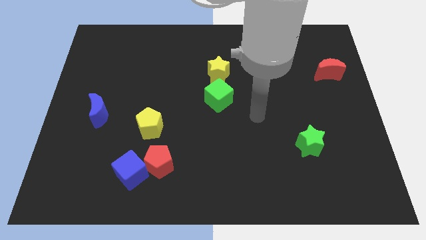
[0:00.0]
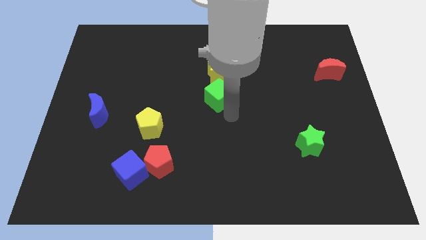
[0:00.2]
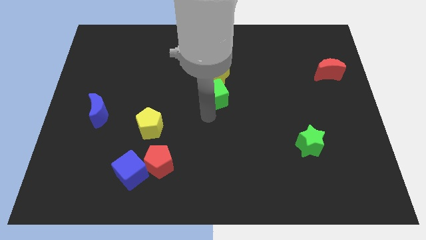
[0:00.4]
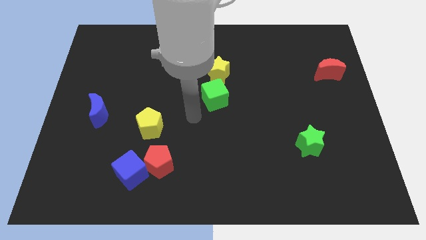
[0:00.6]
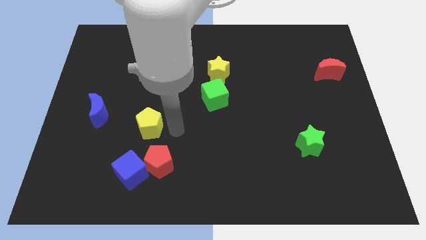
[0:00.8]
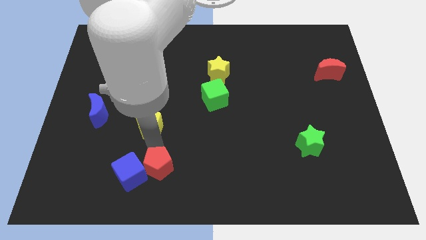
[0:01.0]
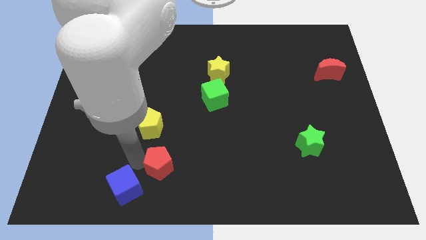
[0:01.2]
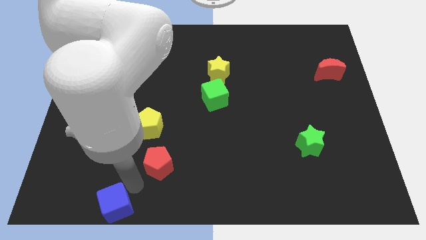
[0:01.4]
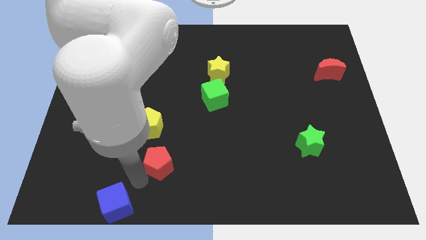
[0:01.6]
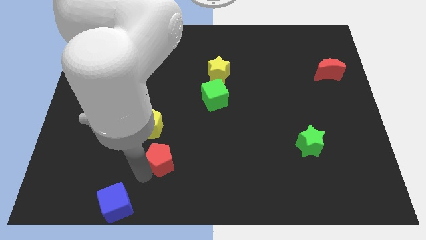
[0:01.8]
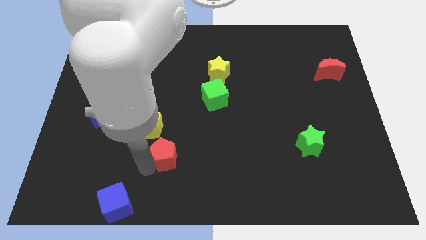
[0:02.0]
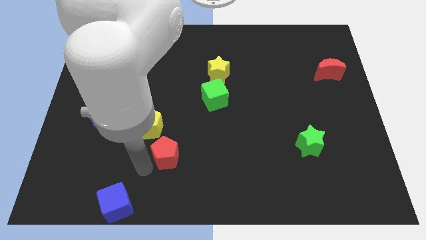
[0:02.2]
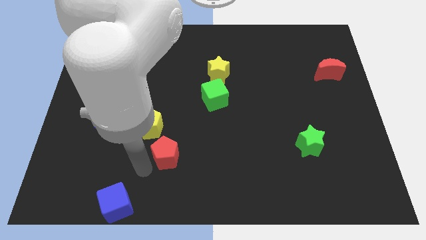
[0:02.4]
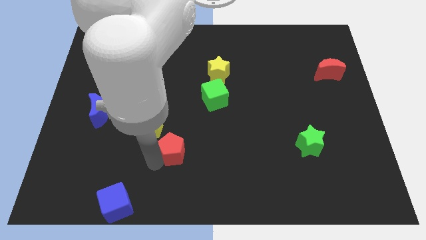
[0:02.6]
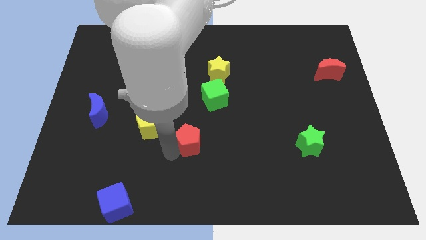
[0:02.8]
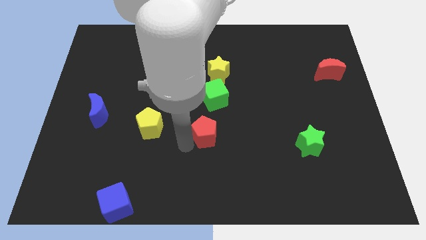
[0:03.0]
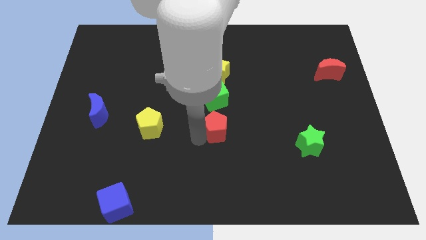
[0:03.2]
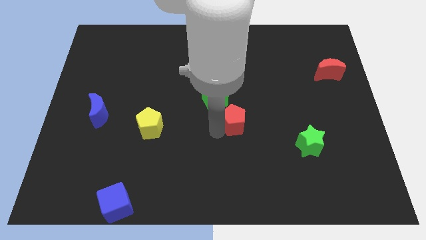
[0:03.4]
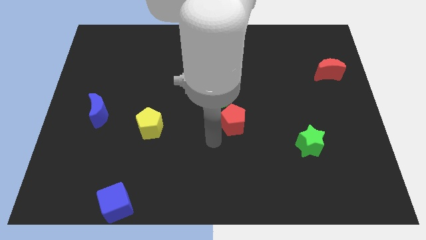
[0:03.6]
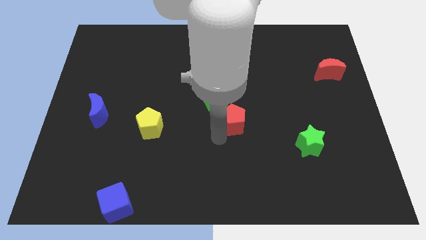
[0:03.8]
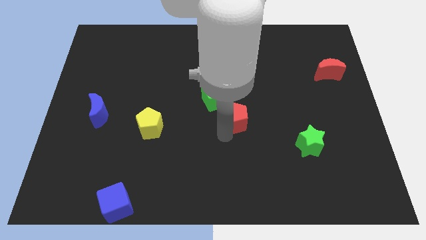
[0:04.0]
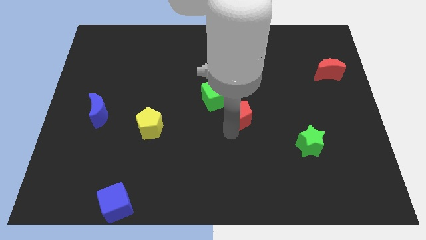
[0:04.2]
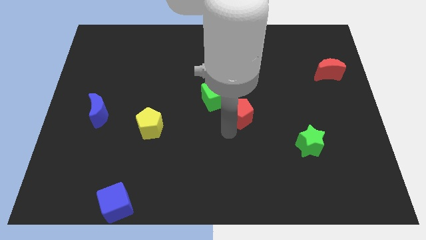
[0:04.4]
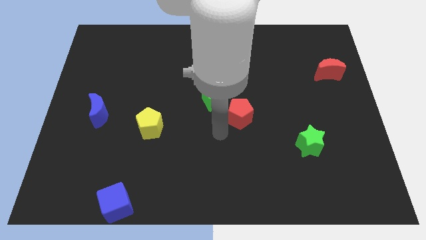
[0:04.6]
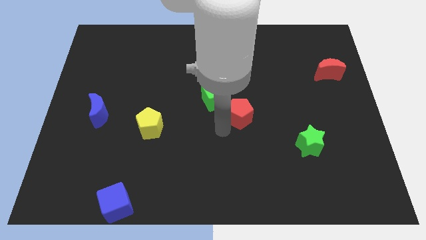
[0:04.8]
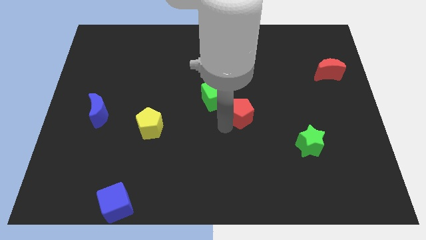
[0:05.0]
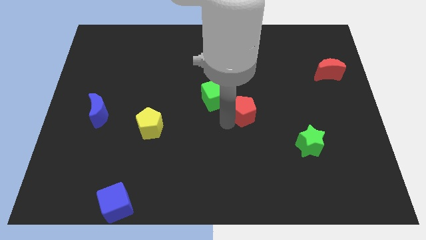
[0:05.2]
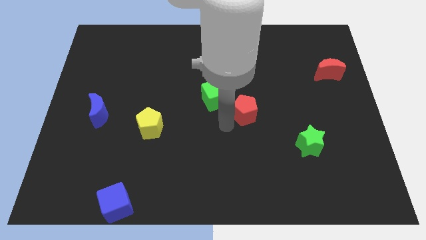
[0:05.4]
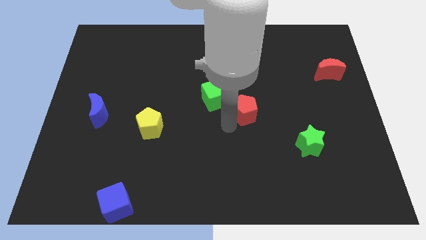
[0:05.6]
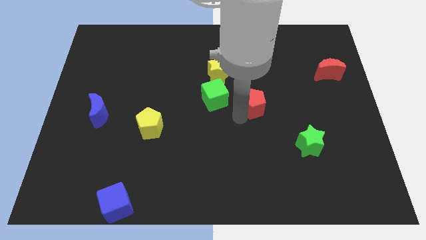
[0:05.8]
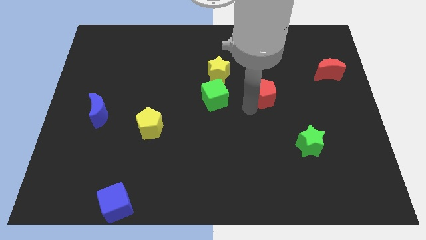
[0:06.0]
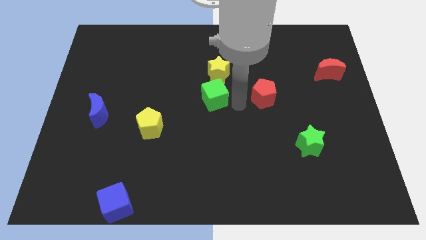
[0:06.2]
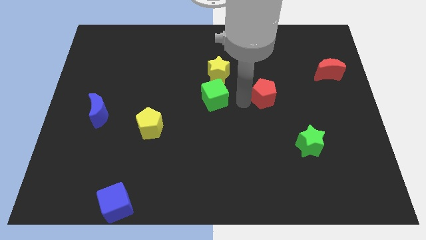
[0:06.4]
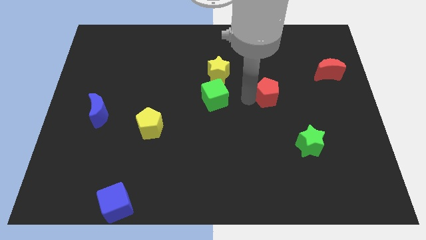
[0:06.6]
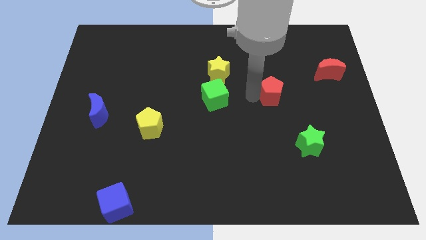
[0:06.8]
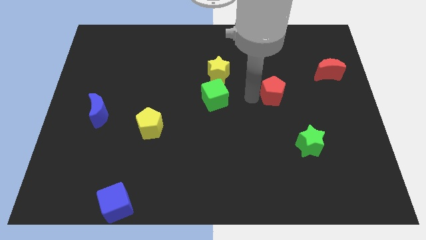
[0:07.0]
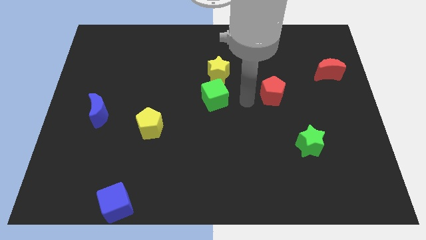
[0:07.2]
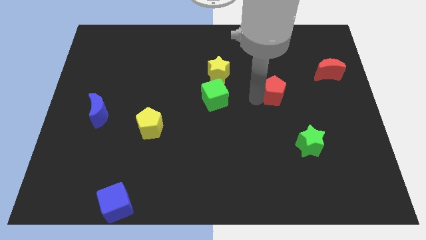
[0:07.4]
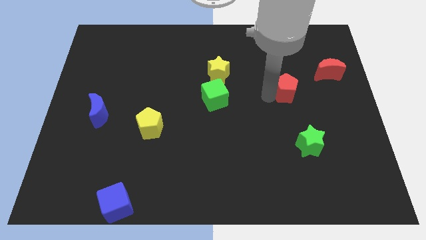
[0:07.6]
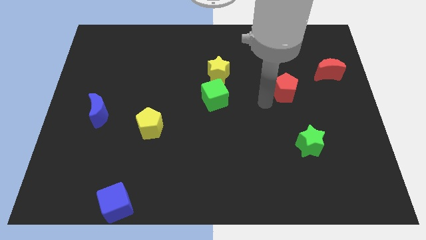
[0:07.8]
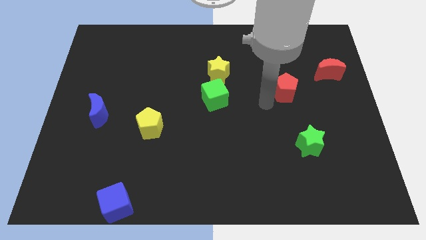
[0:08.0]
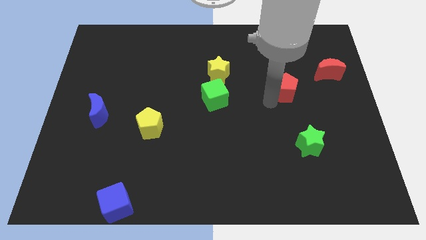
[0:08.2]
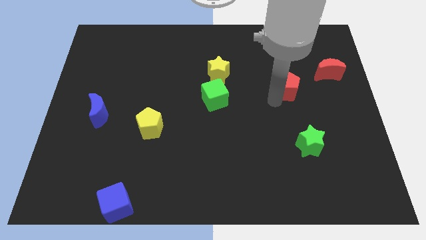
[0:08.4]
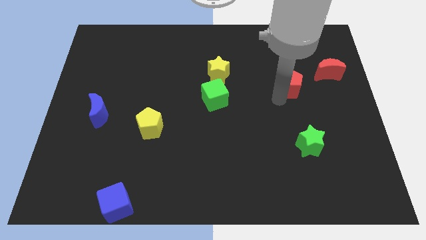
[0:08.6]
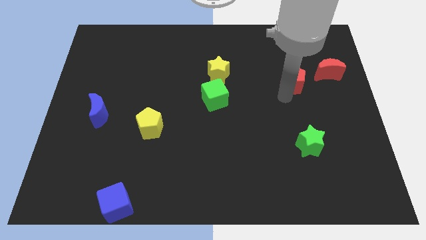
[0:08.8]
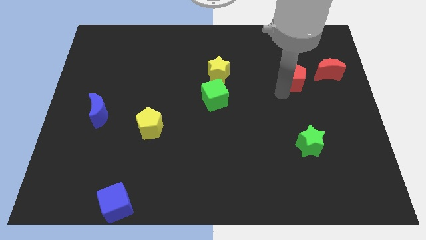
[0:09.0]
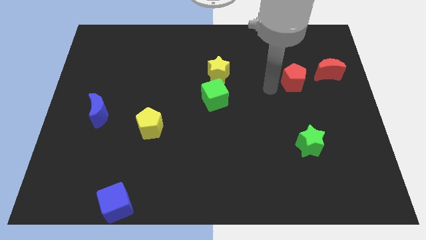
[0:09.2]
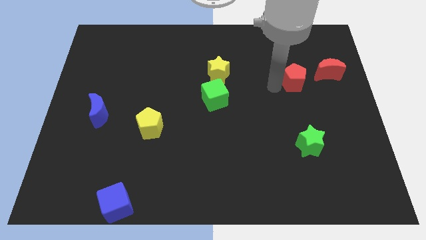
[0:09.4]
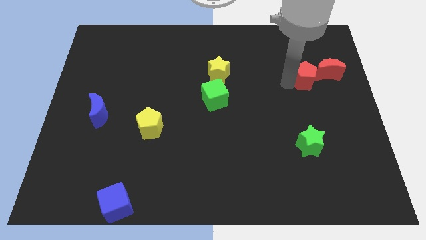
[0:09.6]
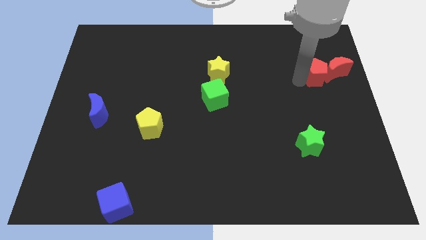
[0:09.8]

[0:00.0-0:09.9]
push the red pentagon to the red moon

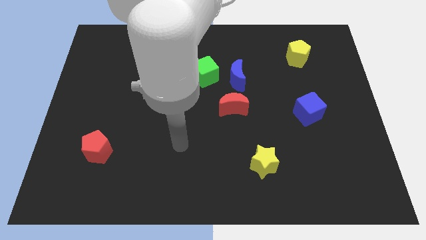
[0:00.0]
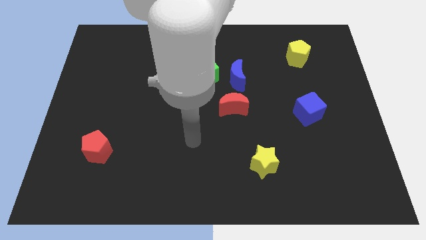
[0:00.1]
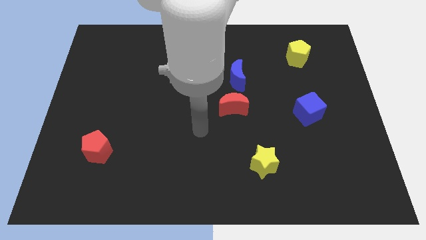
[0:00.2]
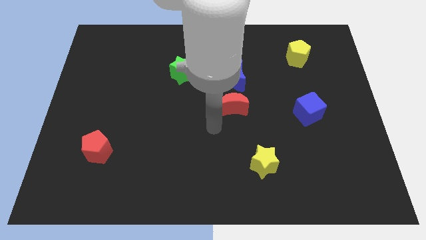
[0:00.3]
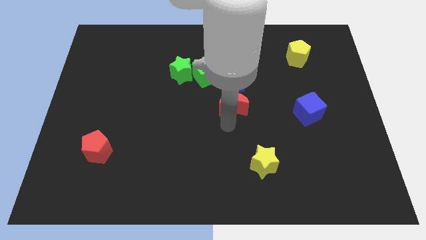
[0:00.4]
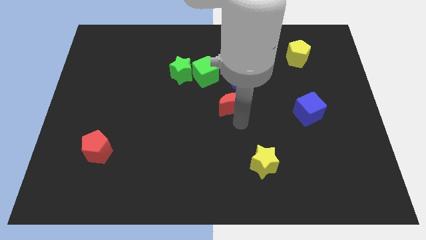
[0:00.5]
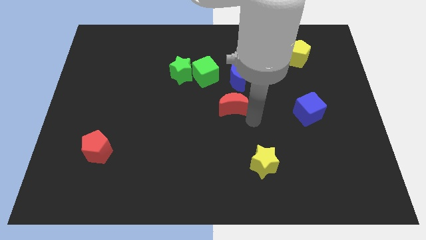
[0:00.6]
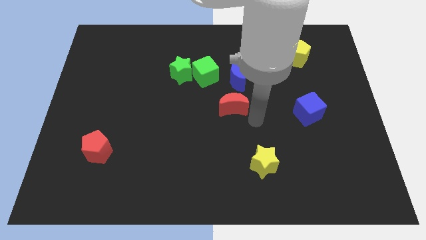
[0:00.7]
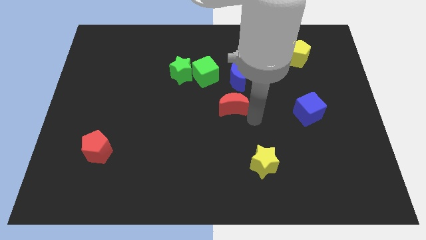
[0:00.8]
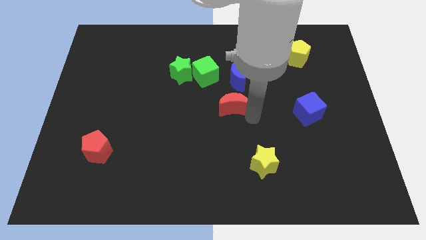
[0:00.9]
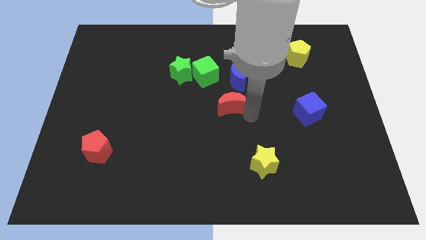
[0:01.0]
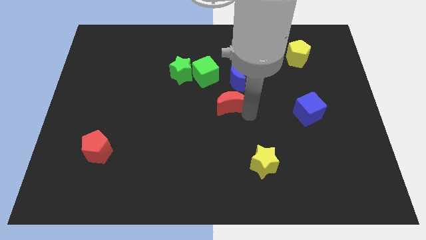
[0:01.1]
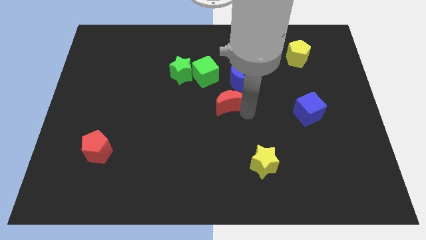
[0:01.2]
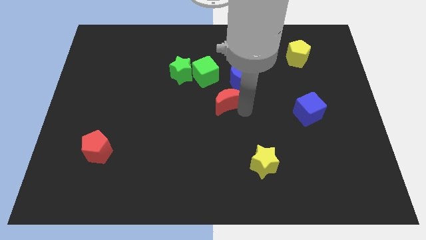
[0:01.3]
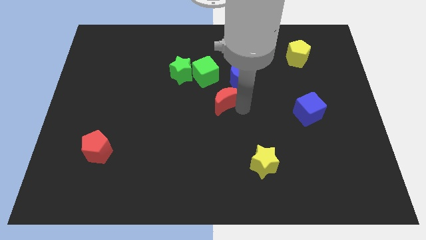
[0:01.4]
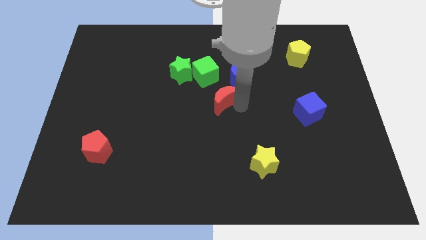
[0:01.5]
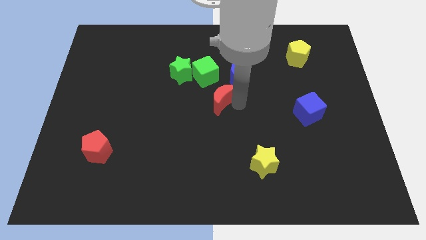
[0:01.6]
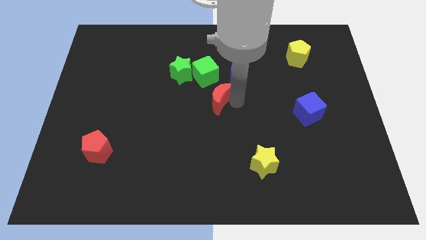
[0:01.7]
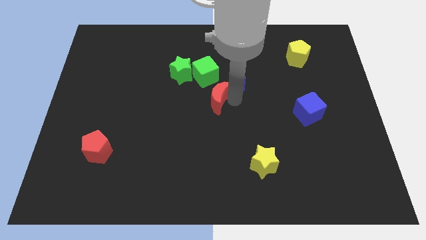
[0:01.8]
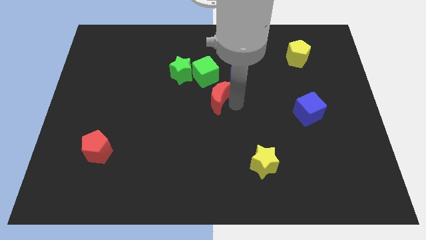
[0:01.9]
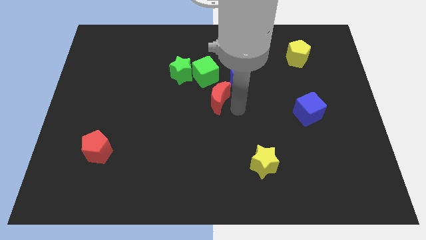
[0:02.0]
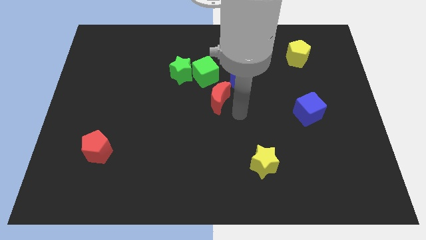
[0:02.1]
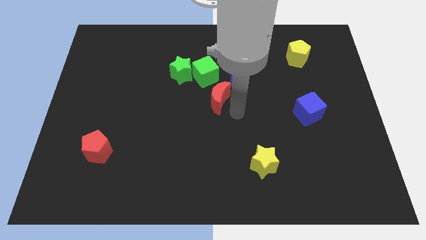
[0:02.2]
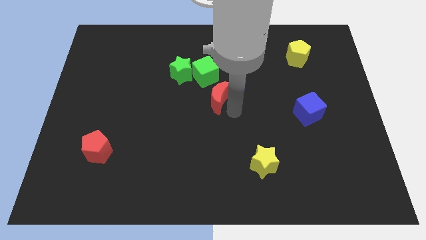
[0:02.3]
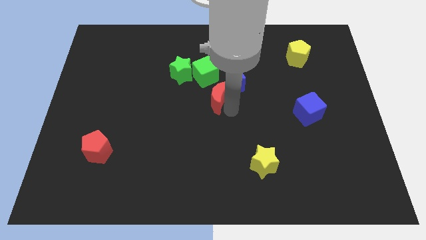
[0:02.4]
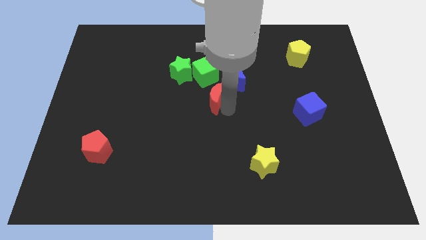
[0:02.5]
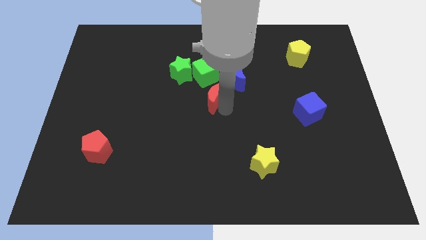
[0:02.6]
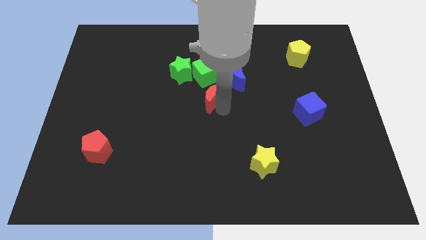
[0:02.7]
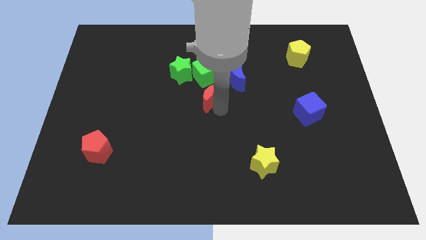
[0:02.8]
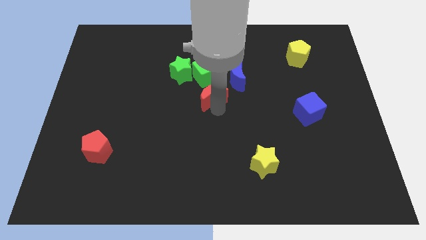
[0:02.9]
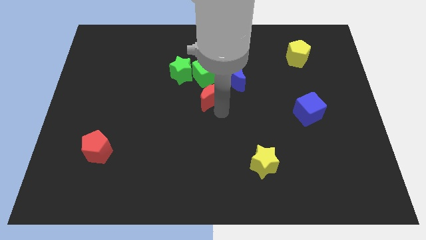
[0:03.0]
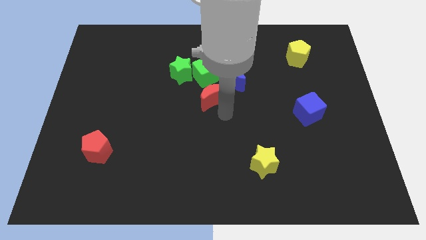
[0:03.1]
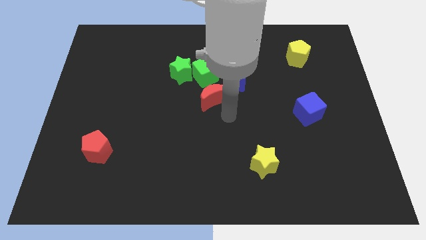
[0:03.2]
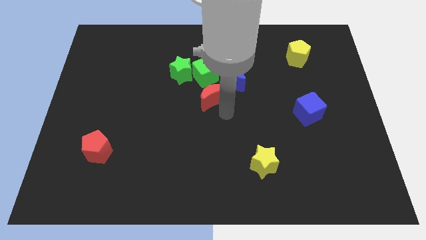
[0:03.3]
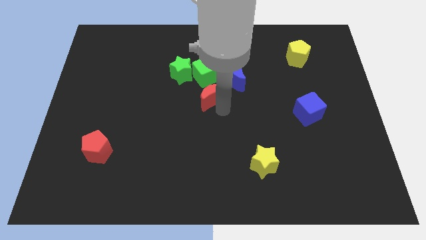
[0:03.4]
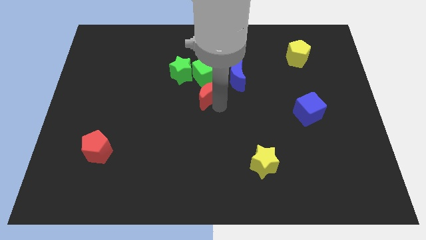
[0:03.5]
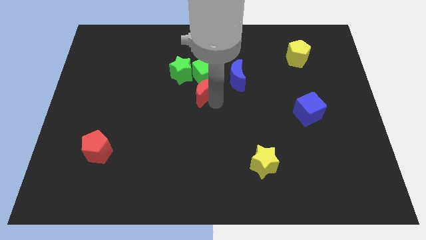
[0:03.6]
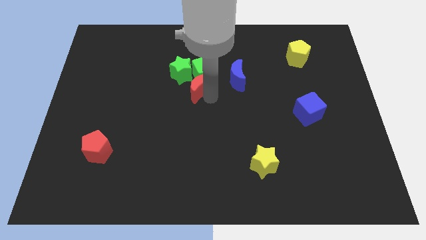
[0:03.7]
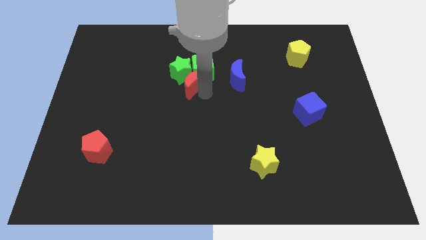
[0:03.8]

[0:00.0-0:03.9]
slide the red moon towards the green star
